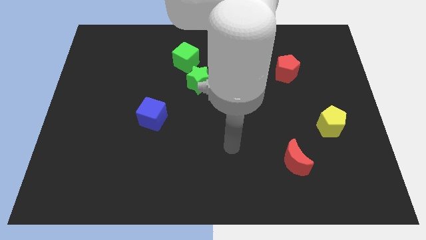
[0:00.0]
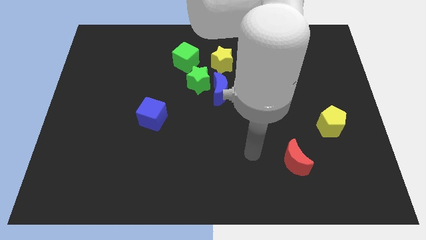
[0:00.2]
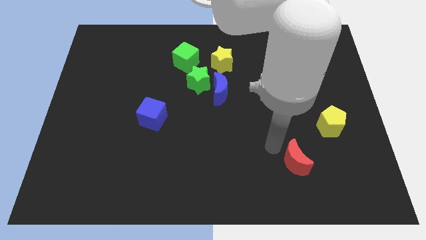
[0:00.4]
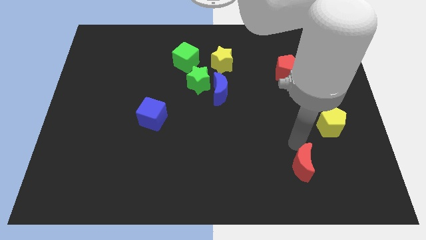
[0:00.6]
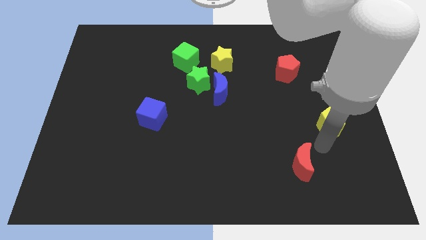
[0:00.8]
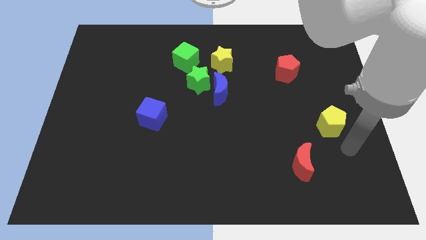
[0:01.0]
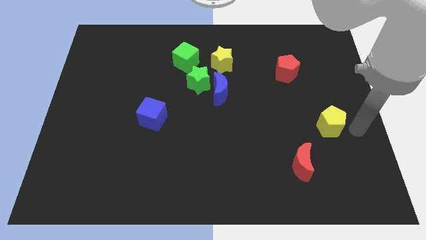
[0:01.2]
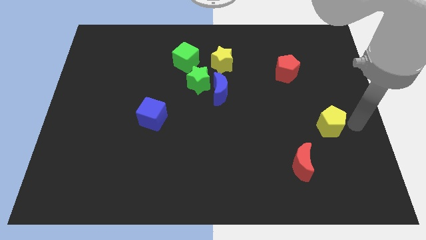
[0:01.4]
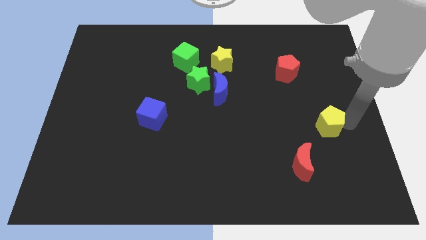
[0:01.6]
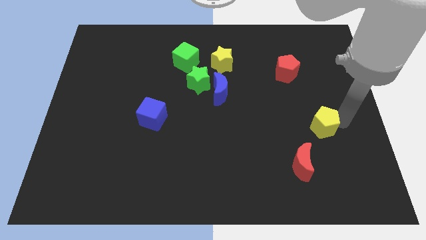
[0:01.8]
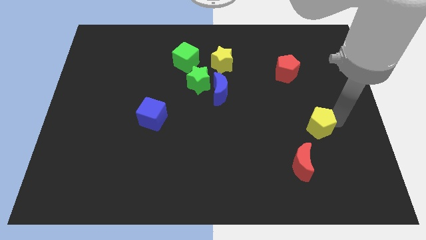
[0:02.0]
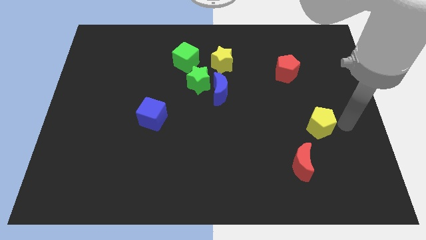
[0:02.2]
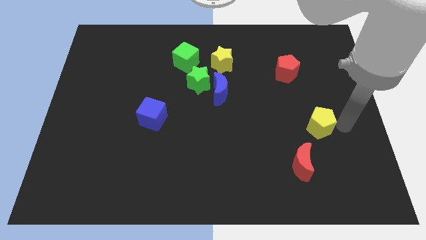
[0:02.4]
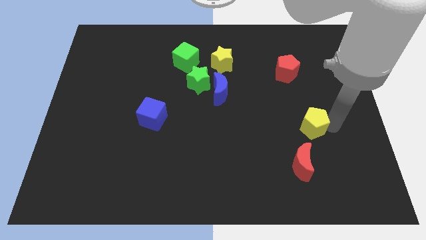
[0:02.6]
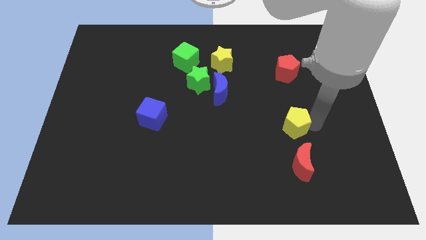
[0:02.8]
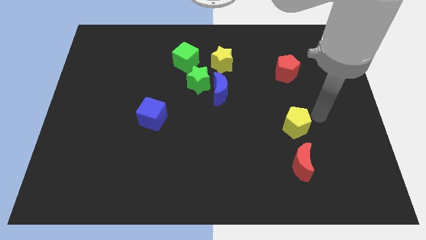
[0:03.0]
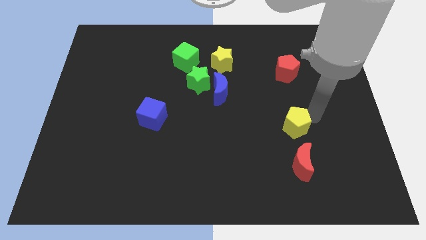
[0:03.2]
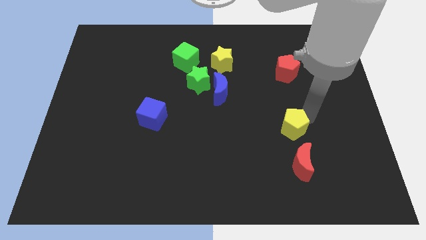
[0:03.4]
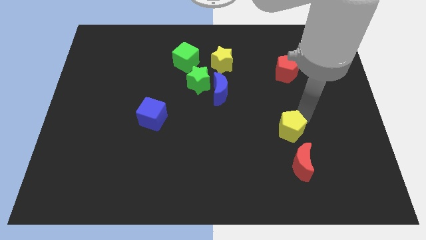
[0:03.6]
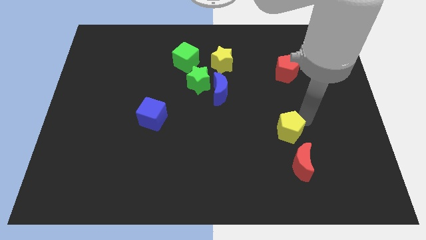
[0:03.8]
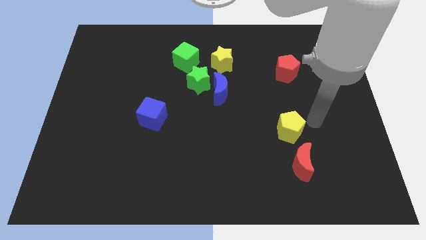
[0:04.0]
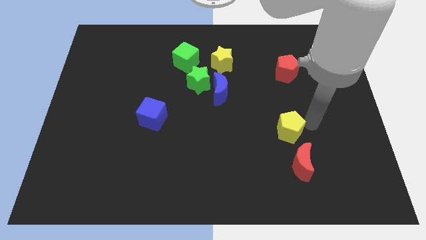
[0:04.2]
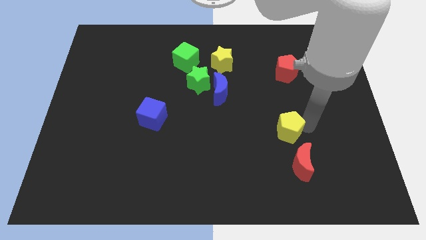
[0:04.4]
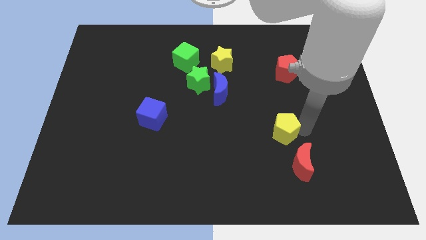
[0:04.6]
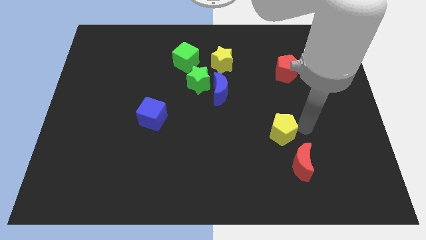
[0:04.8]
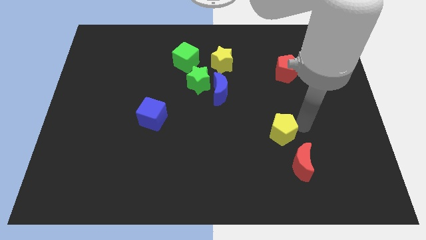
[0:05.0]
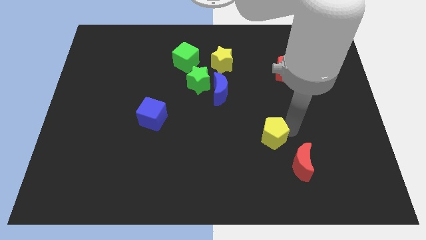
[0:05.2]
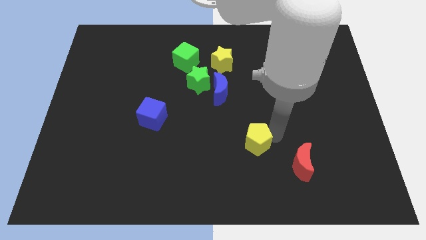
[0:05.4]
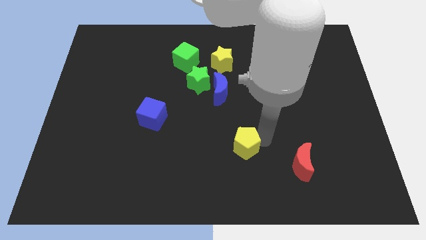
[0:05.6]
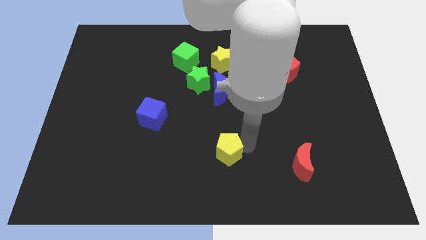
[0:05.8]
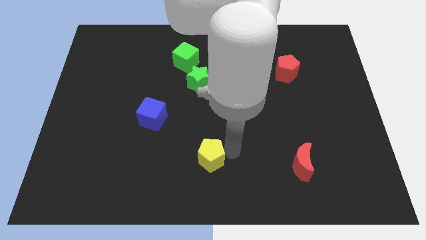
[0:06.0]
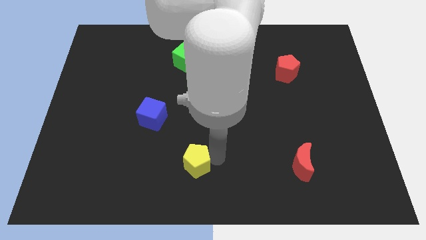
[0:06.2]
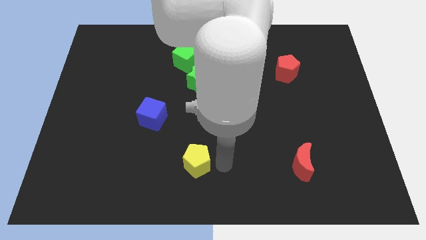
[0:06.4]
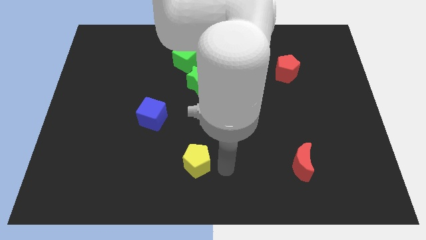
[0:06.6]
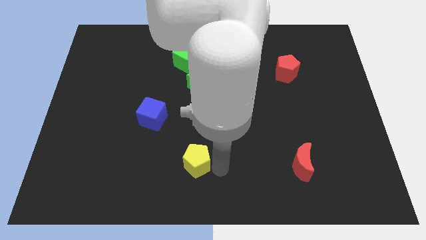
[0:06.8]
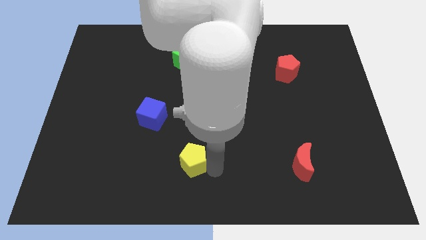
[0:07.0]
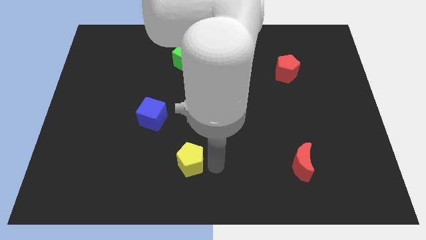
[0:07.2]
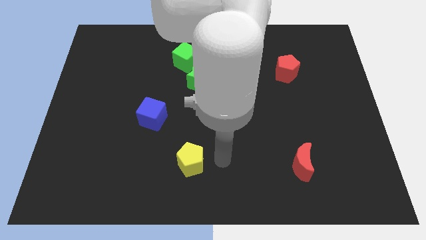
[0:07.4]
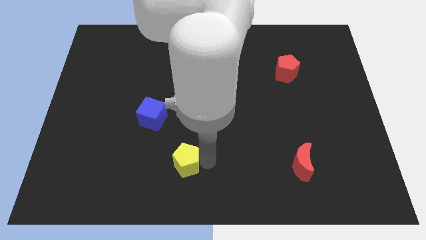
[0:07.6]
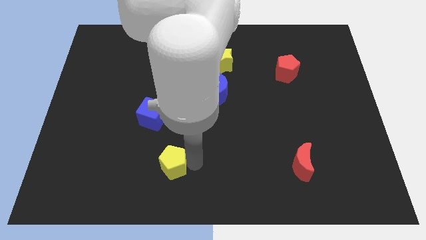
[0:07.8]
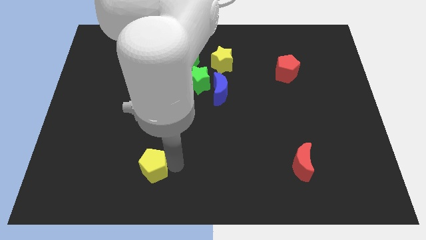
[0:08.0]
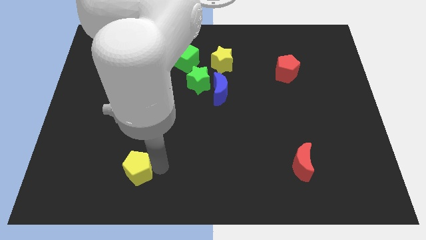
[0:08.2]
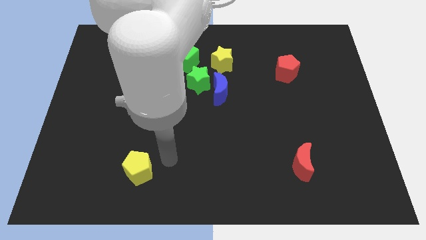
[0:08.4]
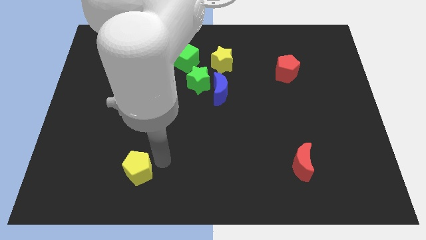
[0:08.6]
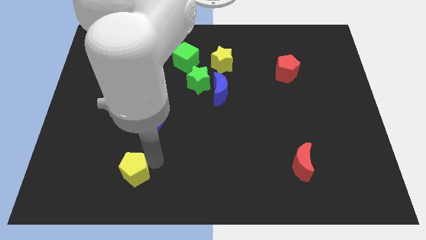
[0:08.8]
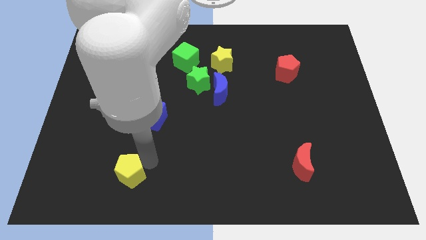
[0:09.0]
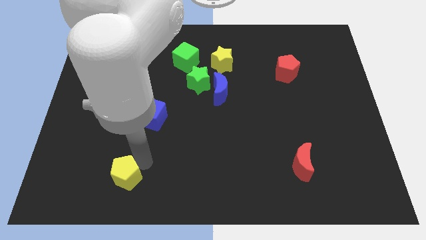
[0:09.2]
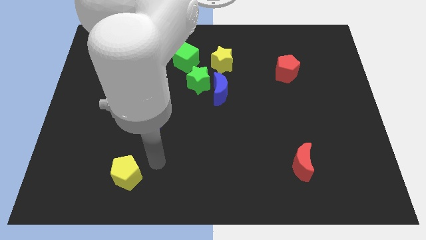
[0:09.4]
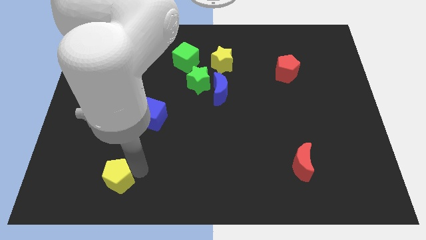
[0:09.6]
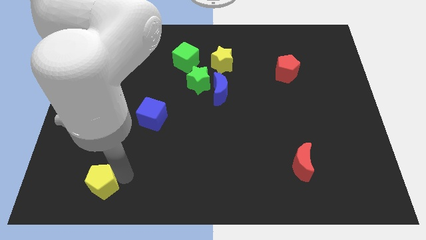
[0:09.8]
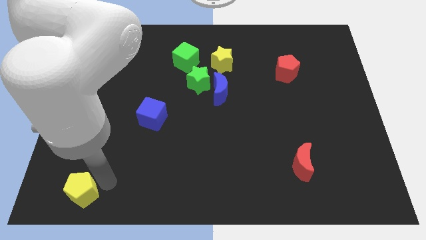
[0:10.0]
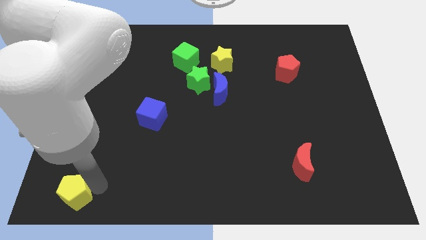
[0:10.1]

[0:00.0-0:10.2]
slide the yellow pentagon to the bottom left of the board

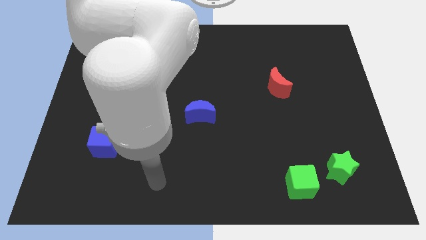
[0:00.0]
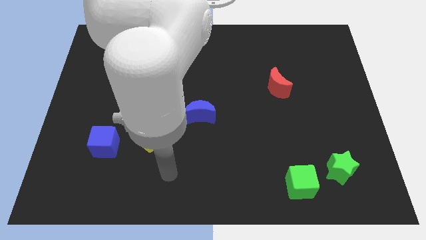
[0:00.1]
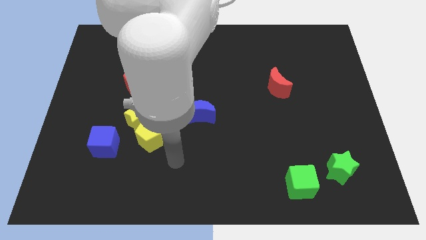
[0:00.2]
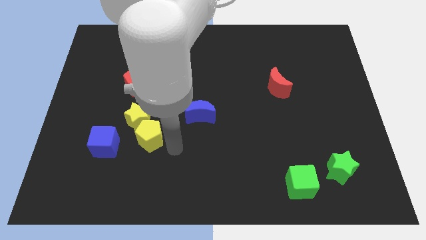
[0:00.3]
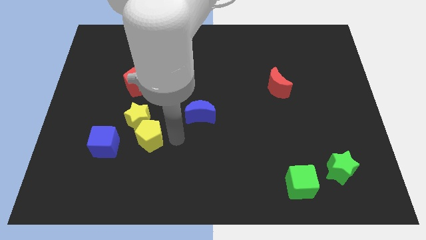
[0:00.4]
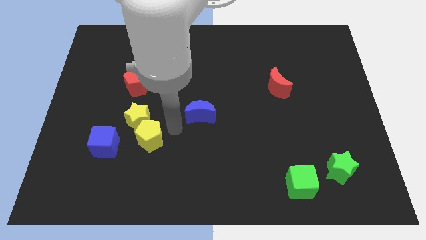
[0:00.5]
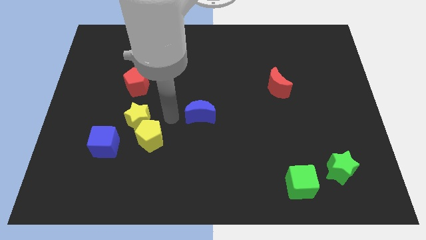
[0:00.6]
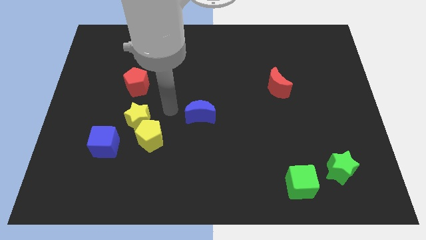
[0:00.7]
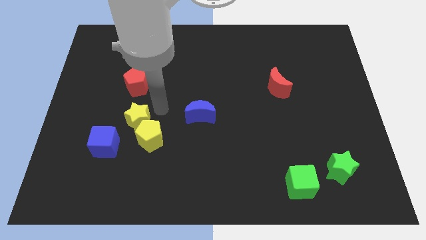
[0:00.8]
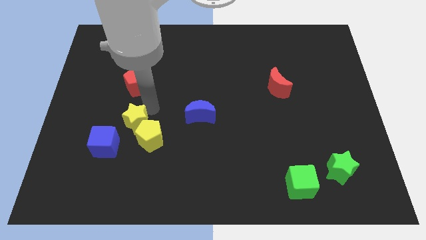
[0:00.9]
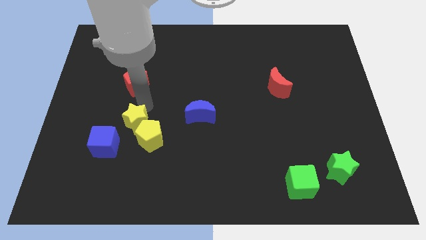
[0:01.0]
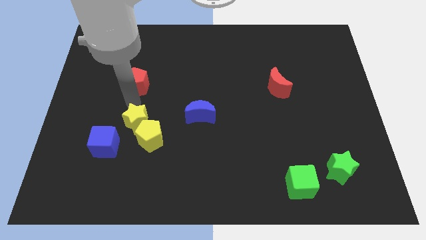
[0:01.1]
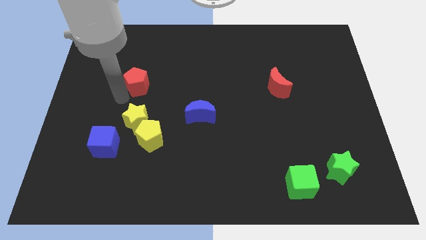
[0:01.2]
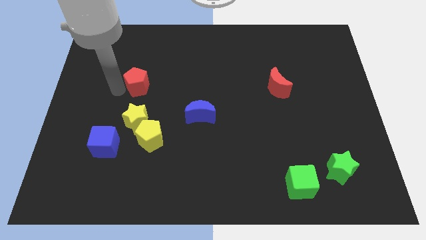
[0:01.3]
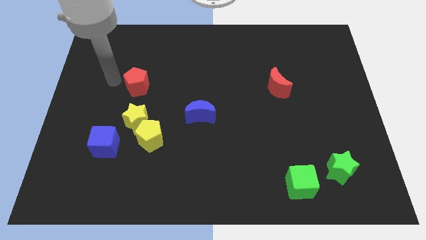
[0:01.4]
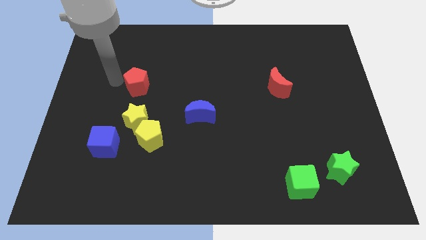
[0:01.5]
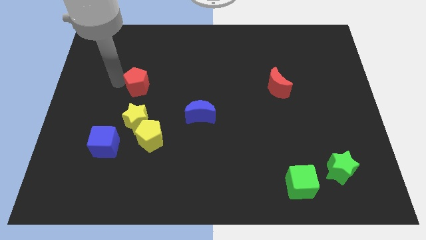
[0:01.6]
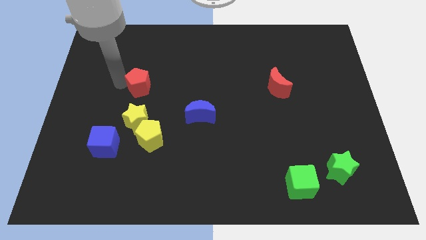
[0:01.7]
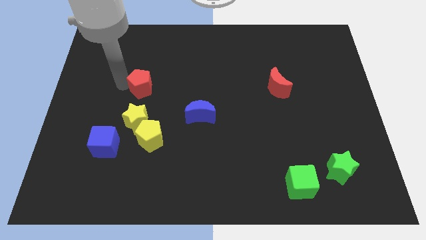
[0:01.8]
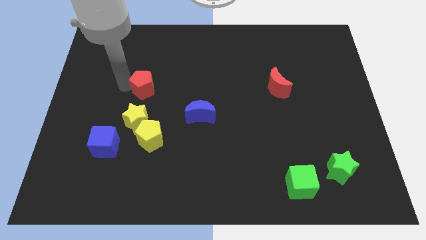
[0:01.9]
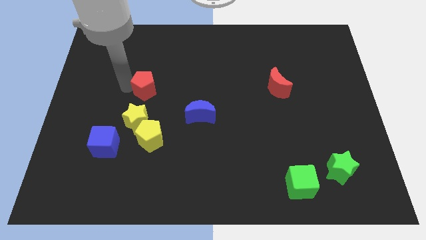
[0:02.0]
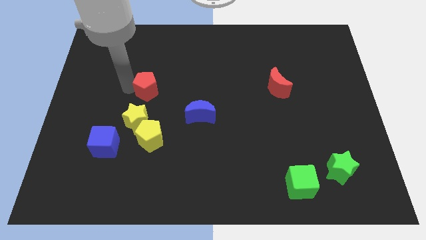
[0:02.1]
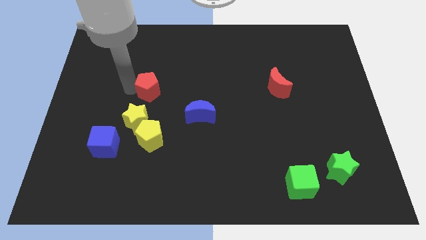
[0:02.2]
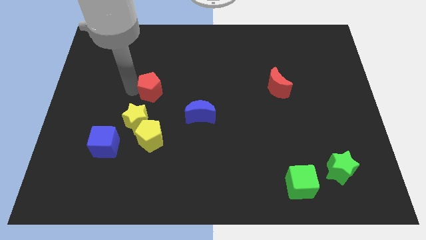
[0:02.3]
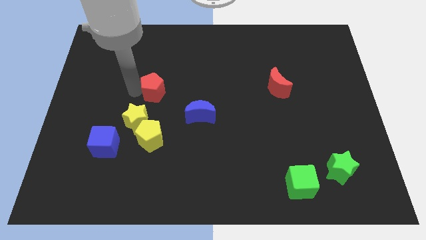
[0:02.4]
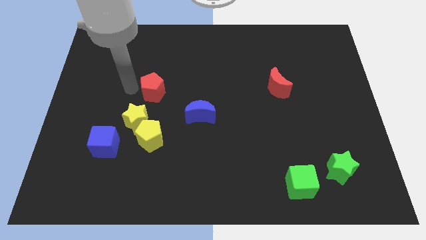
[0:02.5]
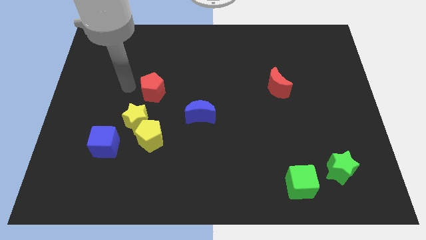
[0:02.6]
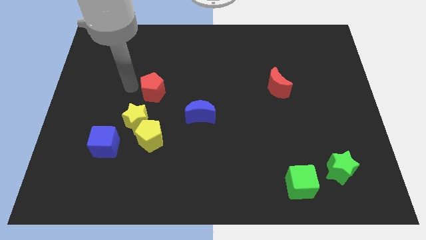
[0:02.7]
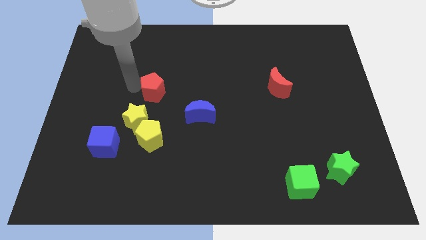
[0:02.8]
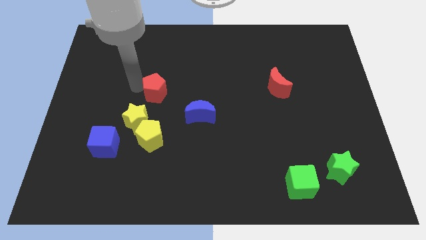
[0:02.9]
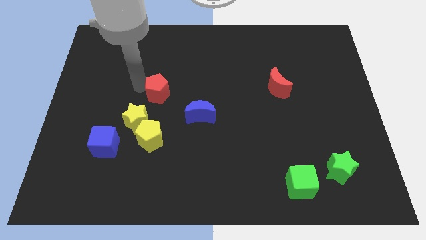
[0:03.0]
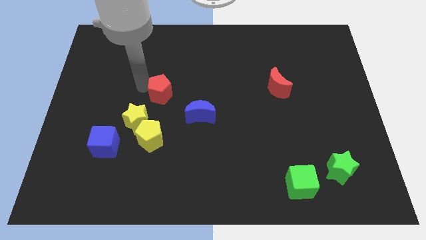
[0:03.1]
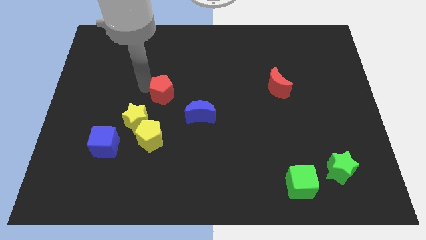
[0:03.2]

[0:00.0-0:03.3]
push the red pentagon to the middle of the board
